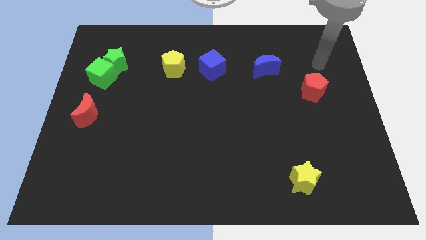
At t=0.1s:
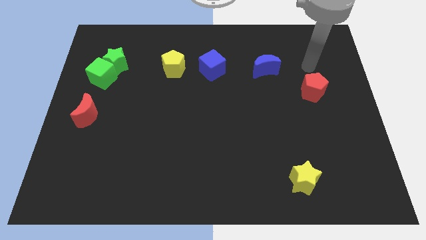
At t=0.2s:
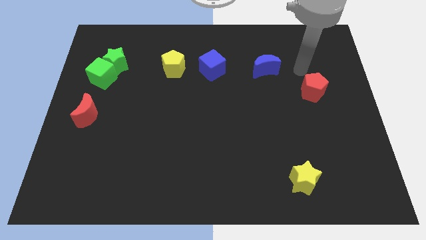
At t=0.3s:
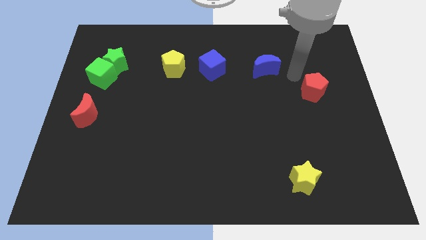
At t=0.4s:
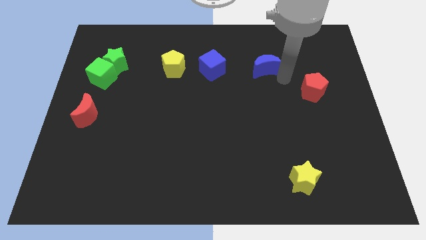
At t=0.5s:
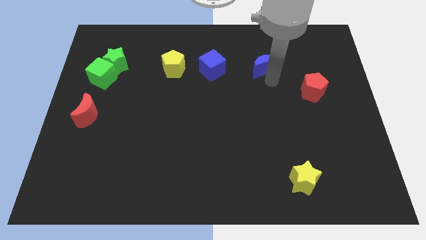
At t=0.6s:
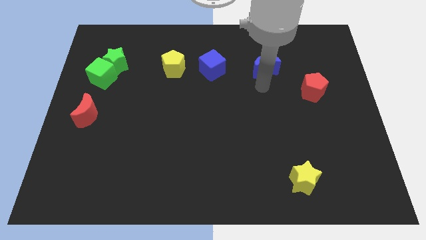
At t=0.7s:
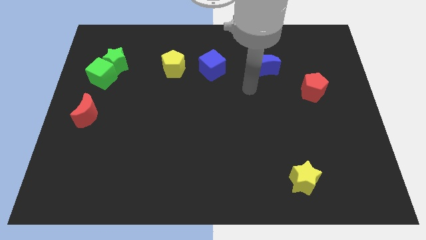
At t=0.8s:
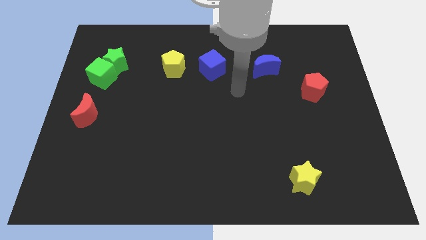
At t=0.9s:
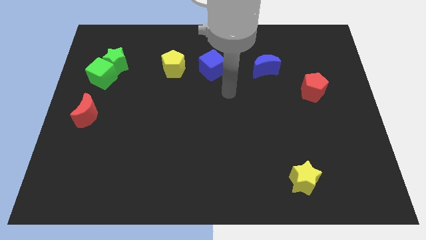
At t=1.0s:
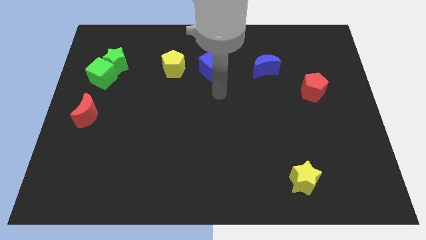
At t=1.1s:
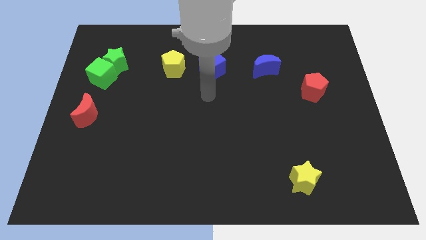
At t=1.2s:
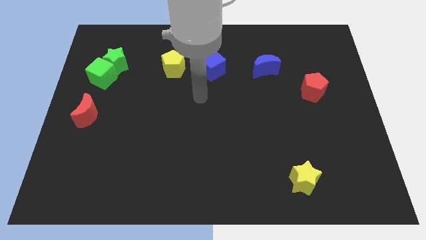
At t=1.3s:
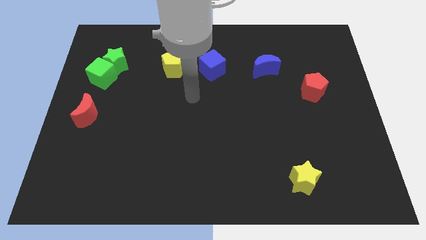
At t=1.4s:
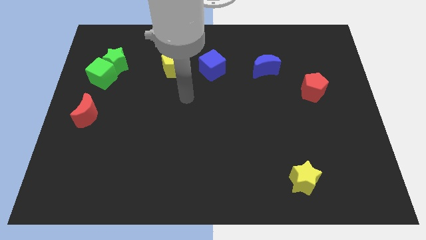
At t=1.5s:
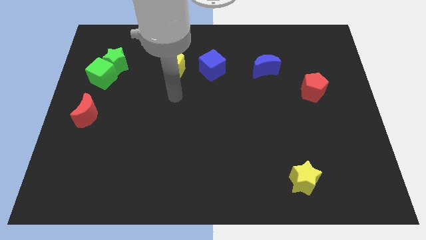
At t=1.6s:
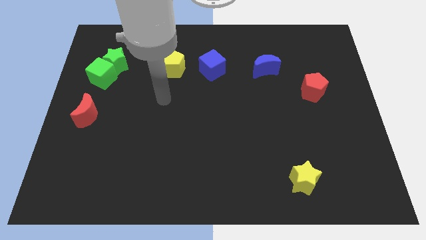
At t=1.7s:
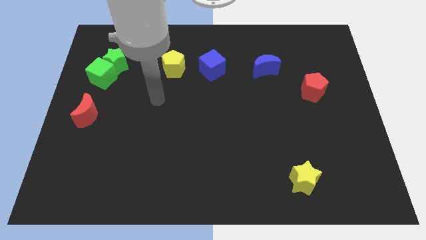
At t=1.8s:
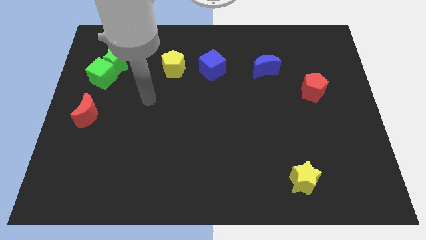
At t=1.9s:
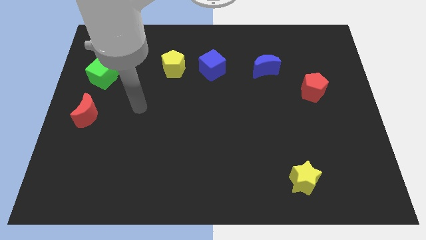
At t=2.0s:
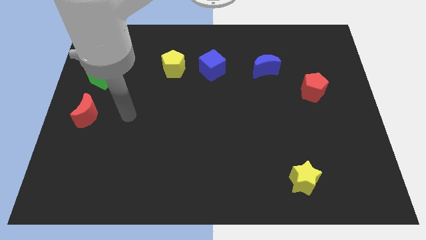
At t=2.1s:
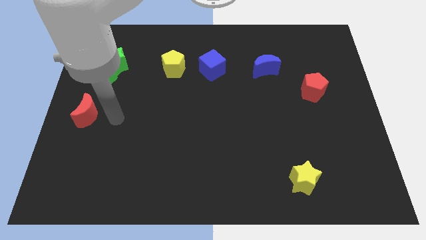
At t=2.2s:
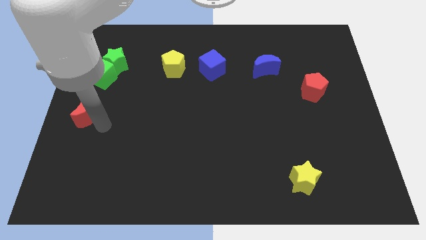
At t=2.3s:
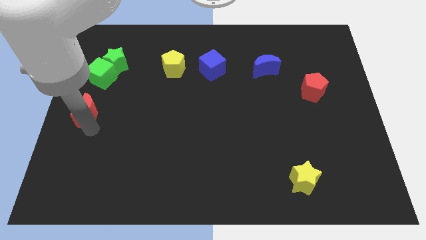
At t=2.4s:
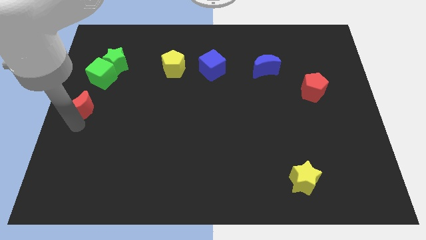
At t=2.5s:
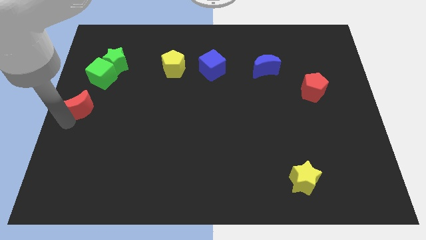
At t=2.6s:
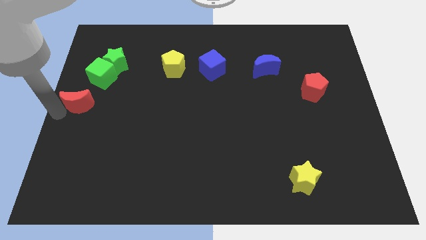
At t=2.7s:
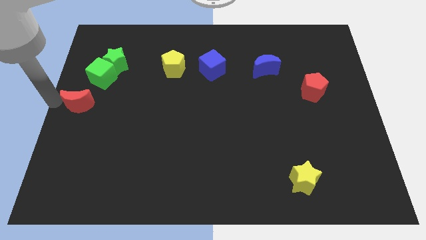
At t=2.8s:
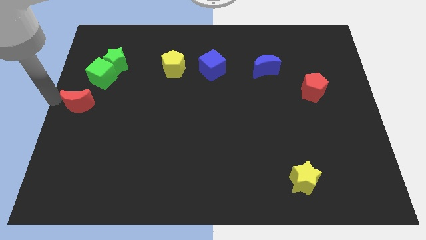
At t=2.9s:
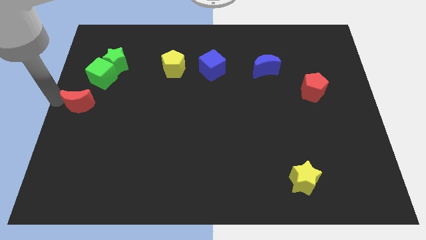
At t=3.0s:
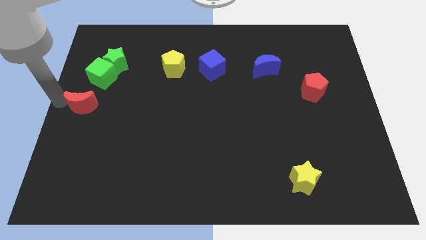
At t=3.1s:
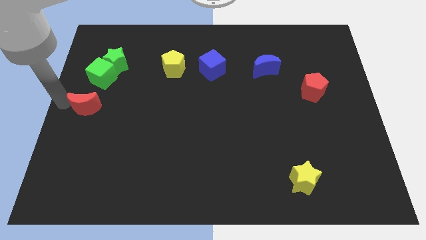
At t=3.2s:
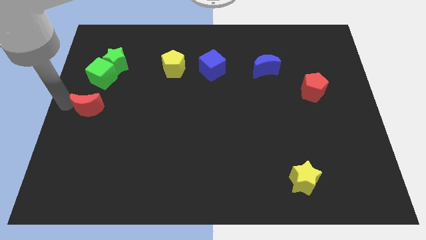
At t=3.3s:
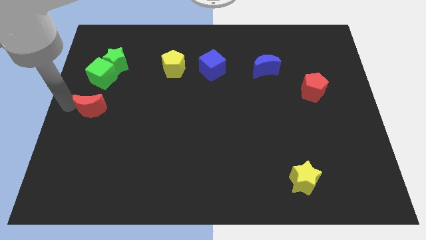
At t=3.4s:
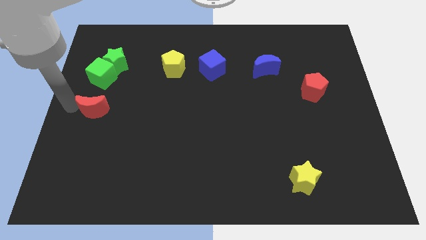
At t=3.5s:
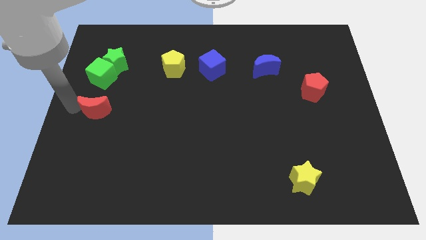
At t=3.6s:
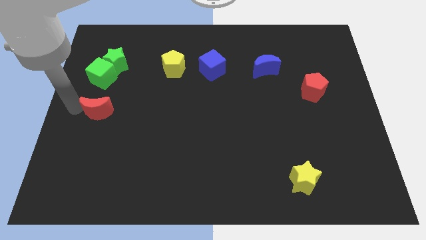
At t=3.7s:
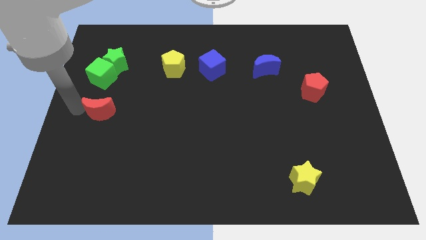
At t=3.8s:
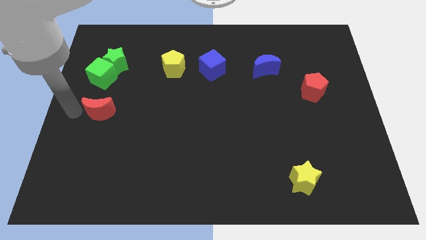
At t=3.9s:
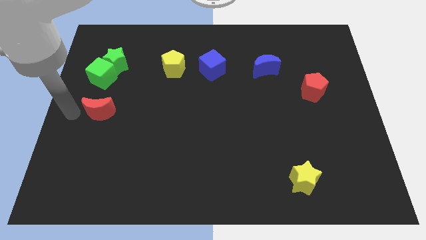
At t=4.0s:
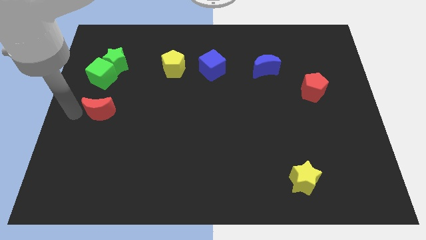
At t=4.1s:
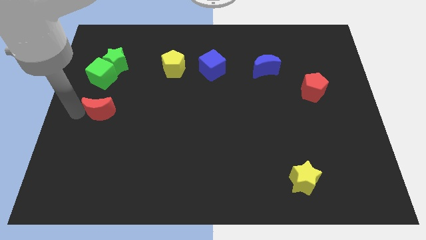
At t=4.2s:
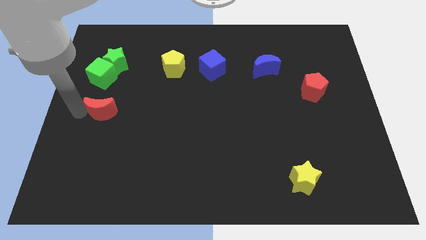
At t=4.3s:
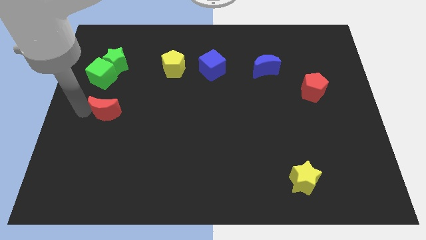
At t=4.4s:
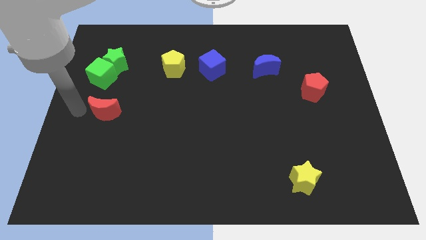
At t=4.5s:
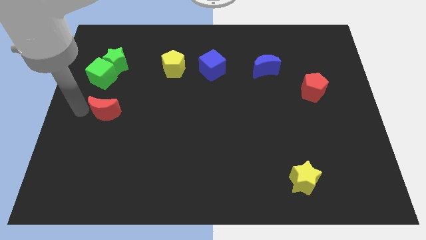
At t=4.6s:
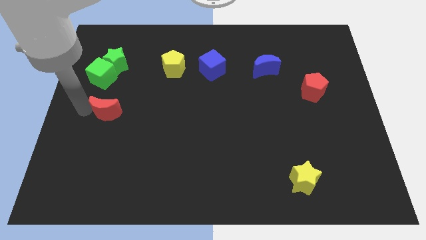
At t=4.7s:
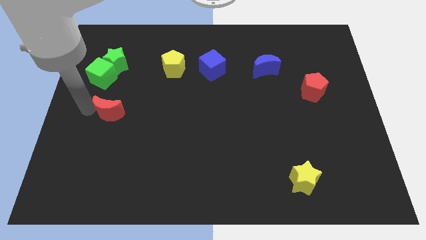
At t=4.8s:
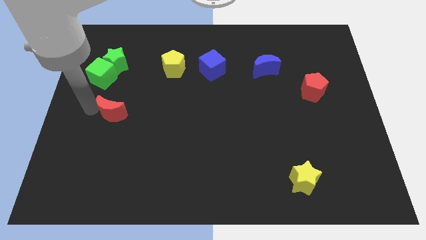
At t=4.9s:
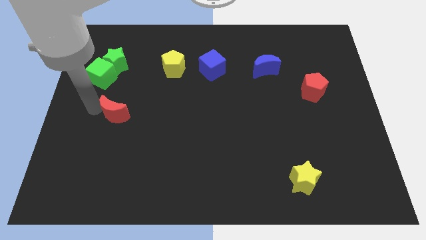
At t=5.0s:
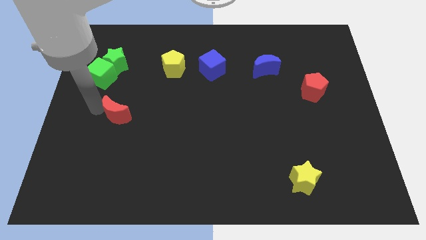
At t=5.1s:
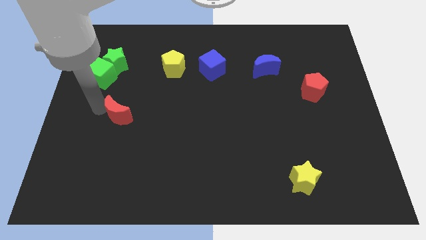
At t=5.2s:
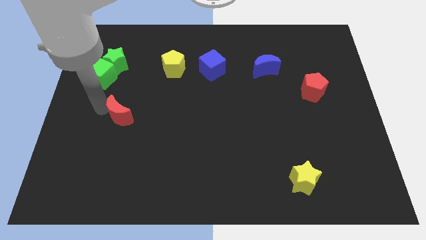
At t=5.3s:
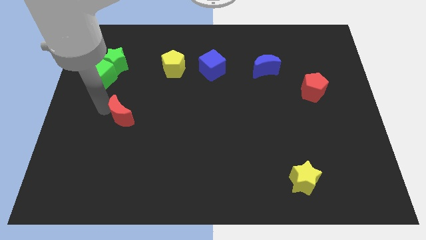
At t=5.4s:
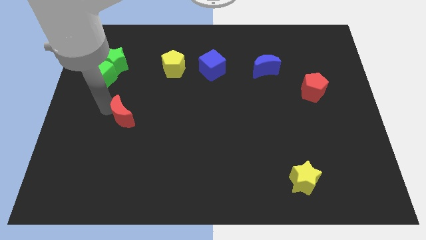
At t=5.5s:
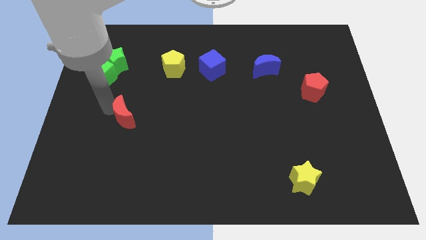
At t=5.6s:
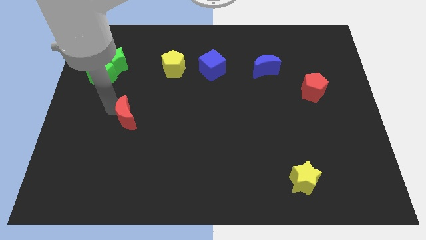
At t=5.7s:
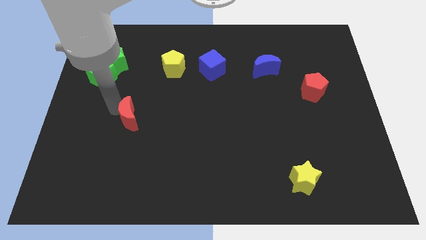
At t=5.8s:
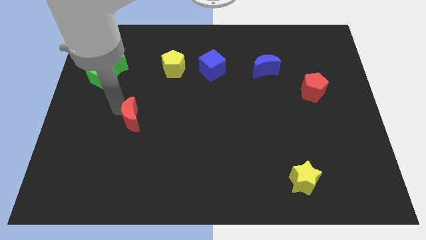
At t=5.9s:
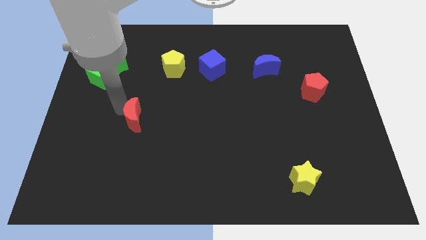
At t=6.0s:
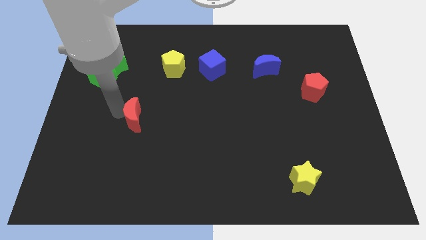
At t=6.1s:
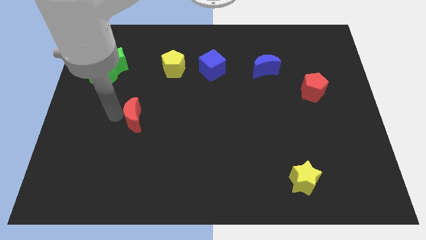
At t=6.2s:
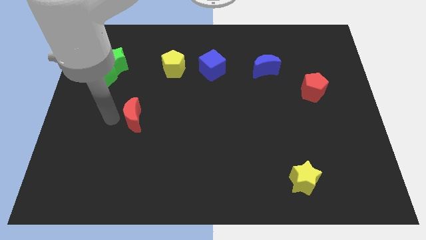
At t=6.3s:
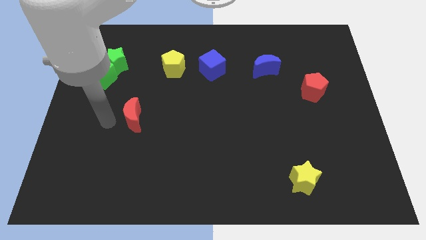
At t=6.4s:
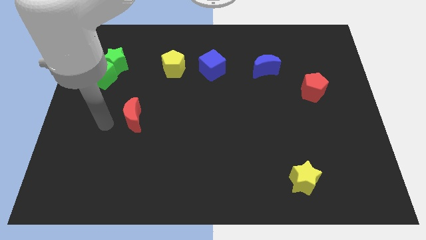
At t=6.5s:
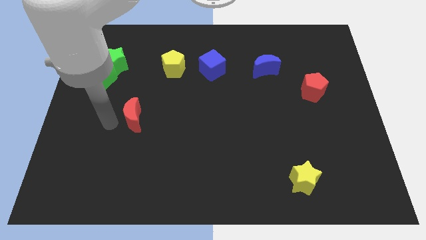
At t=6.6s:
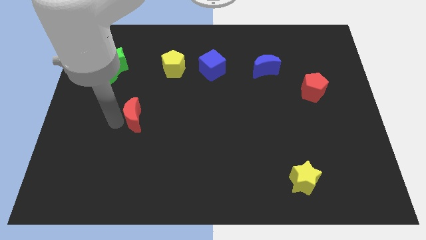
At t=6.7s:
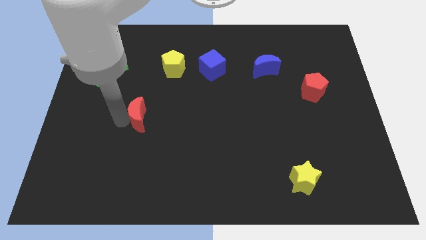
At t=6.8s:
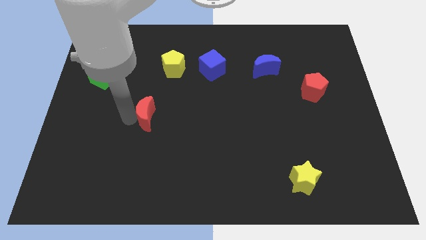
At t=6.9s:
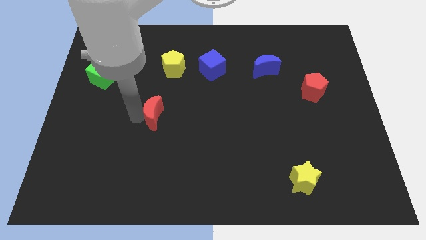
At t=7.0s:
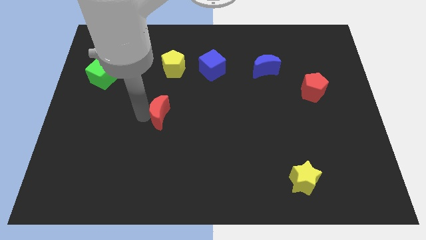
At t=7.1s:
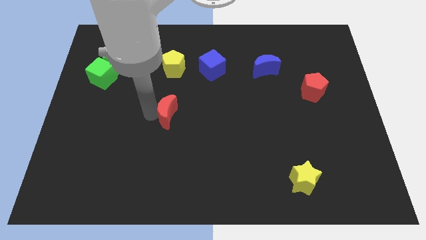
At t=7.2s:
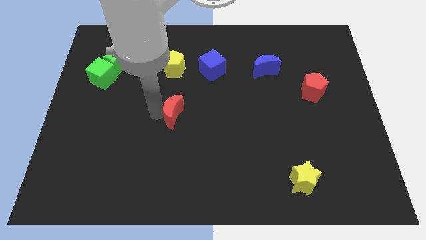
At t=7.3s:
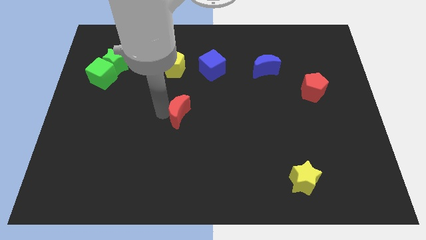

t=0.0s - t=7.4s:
move the red moon to the right

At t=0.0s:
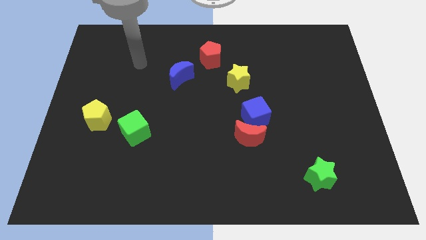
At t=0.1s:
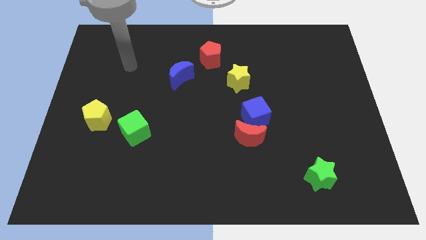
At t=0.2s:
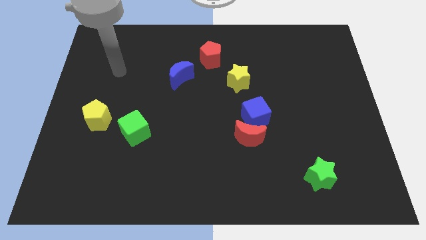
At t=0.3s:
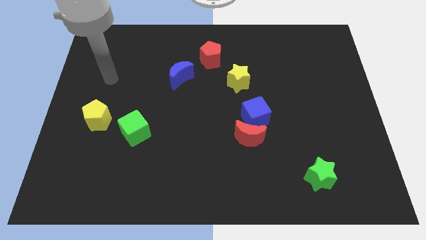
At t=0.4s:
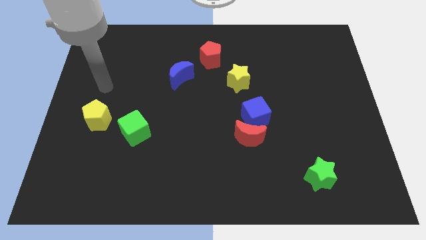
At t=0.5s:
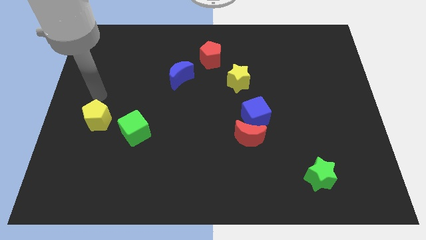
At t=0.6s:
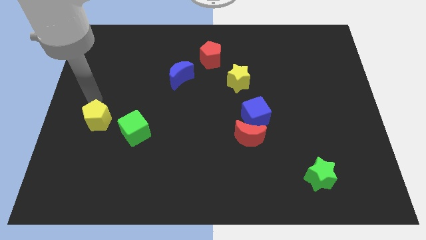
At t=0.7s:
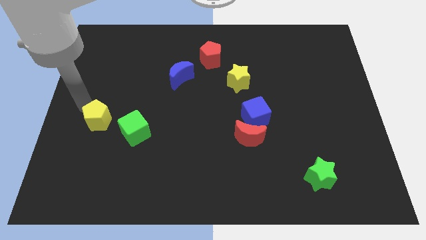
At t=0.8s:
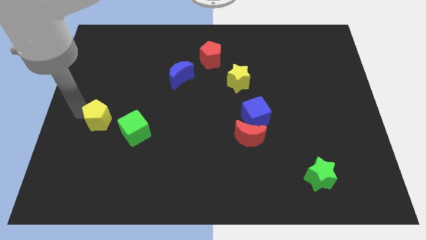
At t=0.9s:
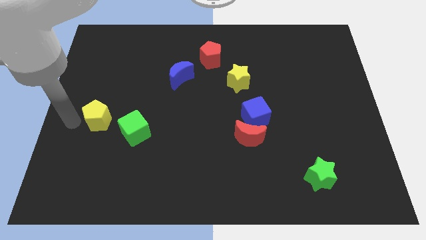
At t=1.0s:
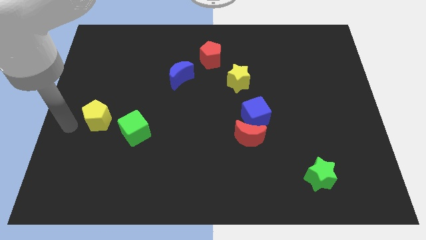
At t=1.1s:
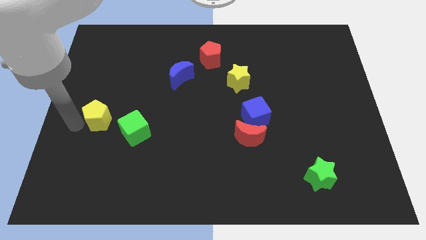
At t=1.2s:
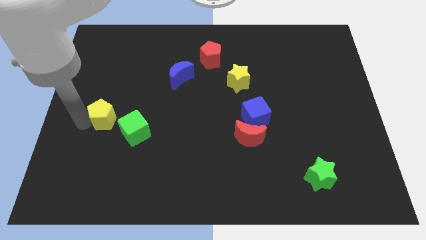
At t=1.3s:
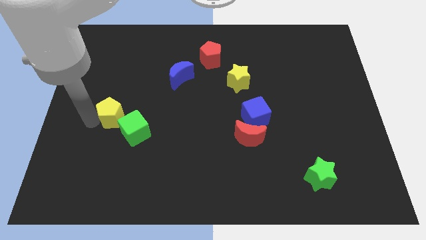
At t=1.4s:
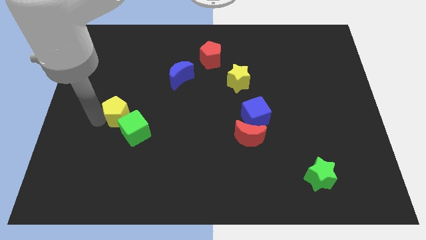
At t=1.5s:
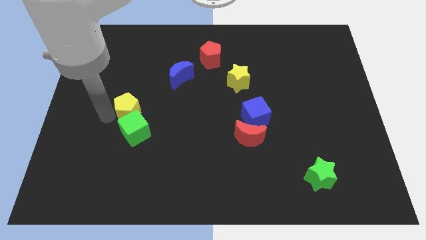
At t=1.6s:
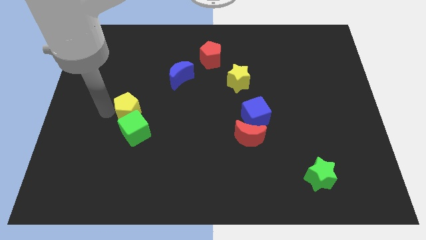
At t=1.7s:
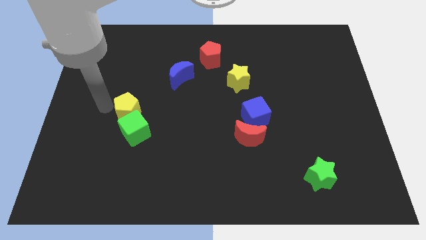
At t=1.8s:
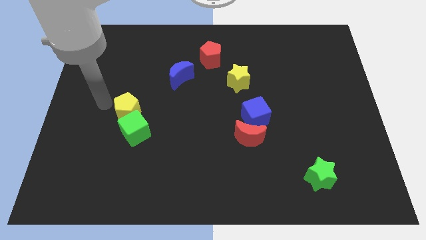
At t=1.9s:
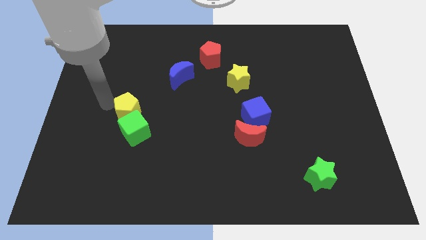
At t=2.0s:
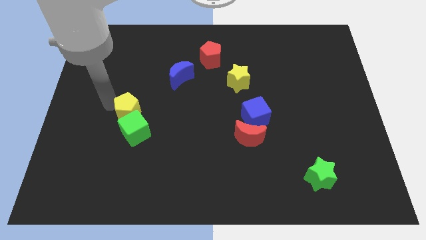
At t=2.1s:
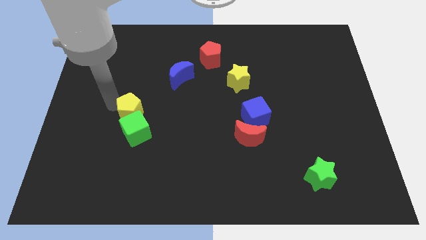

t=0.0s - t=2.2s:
slide the yellow pentagon a bit to the right
